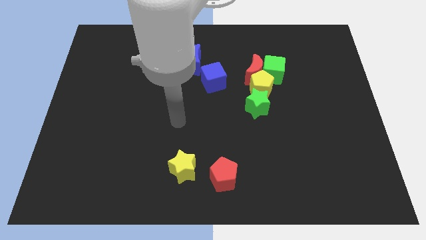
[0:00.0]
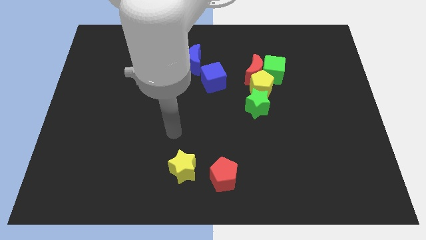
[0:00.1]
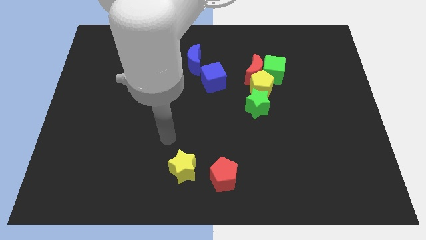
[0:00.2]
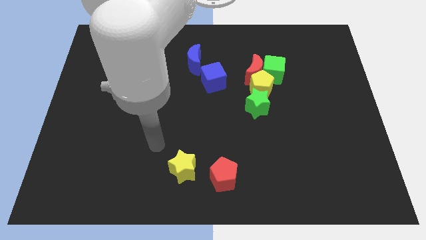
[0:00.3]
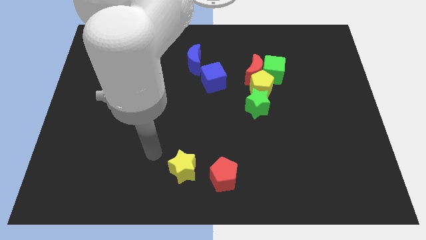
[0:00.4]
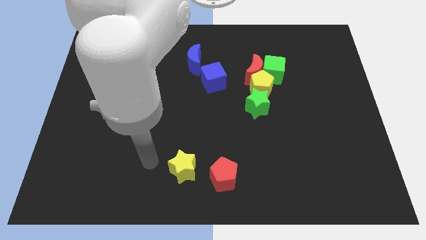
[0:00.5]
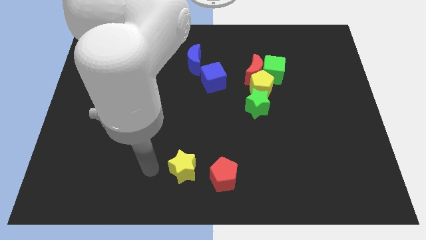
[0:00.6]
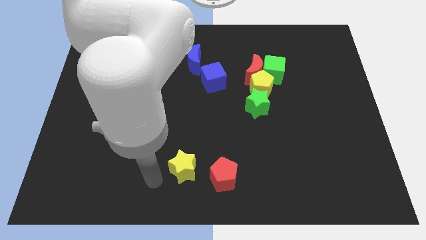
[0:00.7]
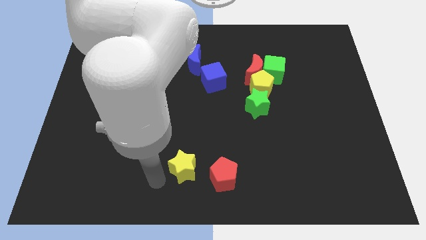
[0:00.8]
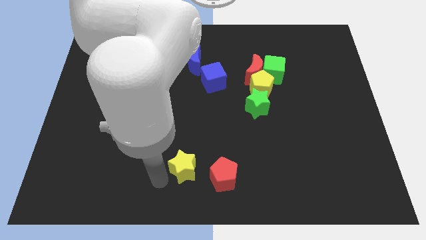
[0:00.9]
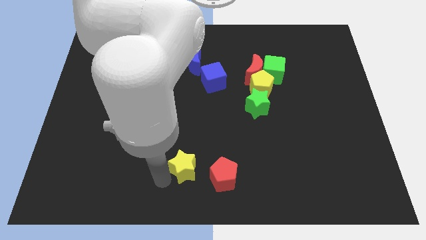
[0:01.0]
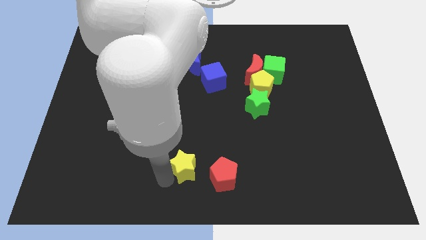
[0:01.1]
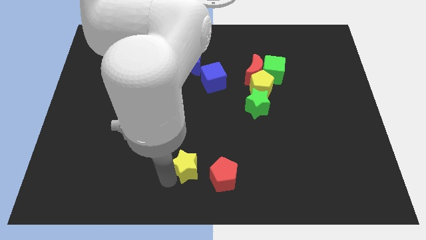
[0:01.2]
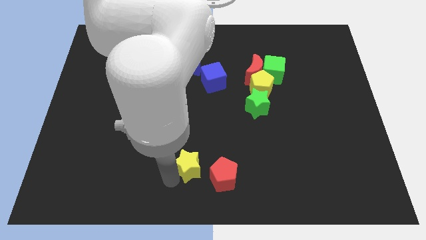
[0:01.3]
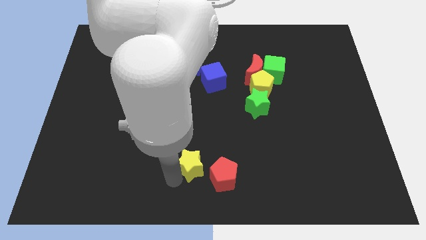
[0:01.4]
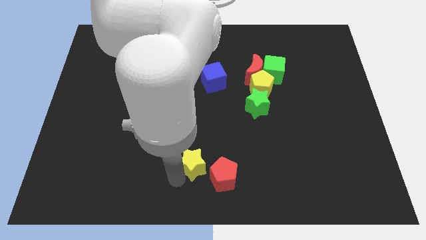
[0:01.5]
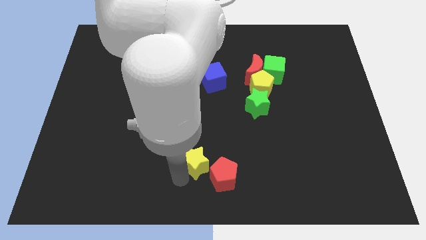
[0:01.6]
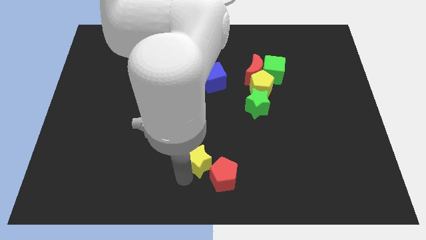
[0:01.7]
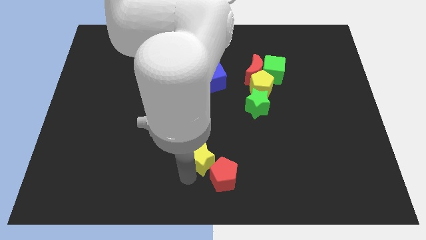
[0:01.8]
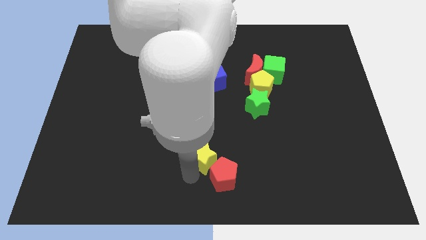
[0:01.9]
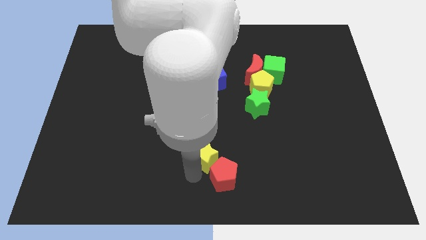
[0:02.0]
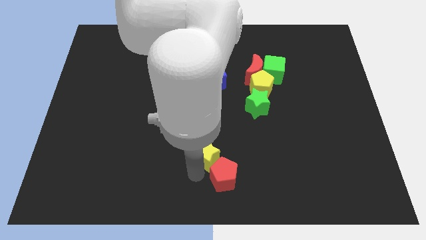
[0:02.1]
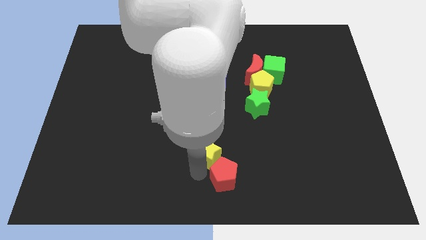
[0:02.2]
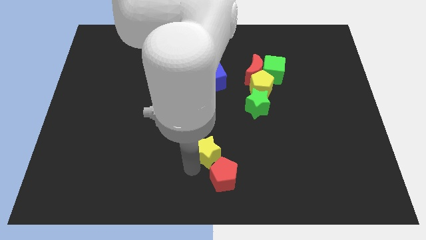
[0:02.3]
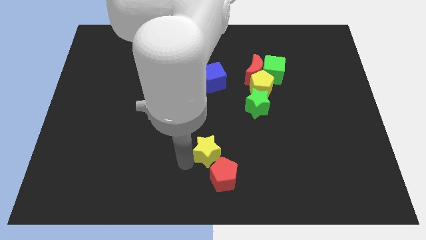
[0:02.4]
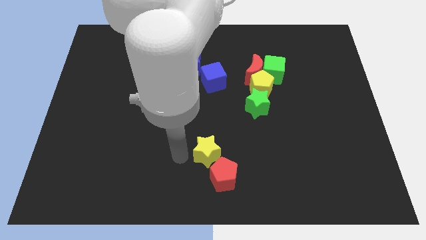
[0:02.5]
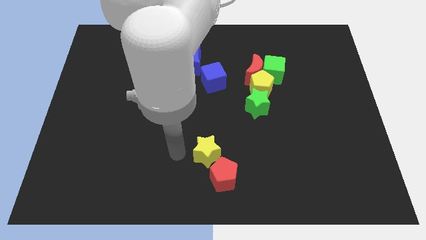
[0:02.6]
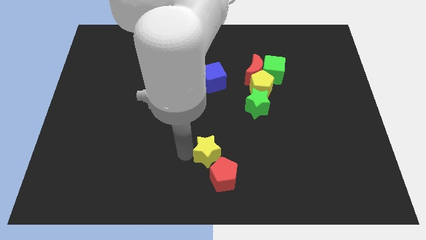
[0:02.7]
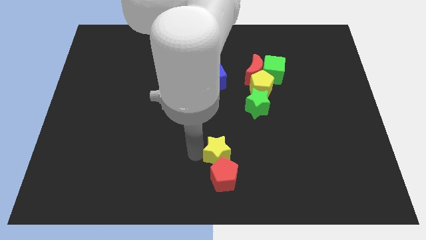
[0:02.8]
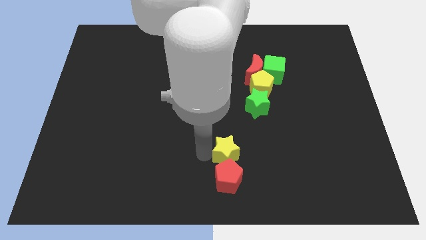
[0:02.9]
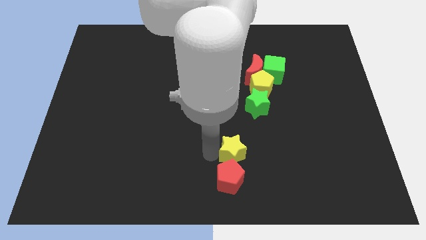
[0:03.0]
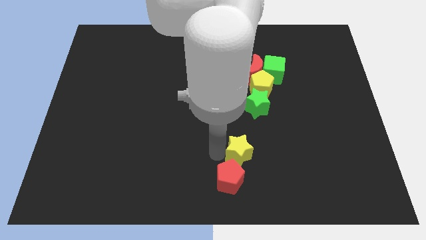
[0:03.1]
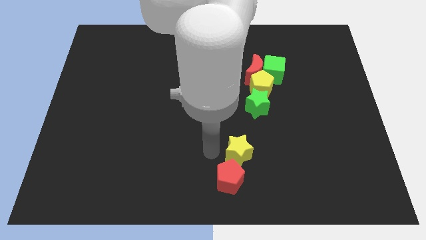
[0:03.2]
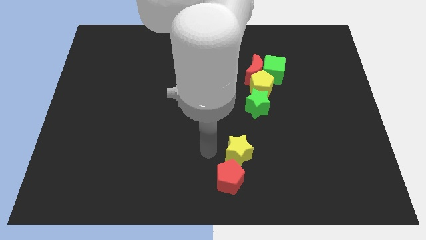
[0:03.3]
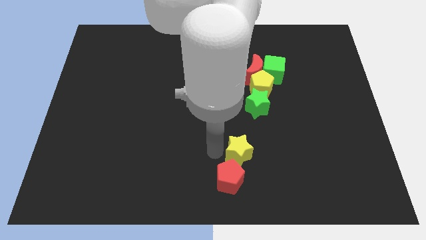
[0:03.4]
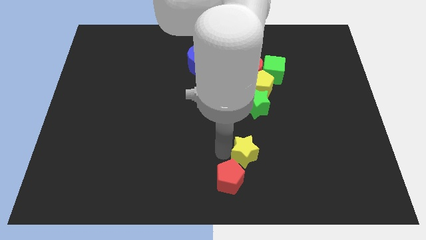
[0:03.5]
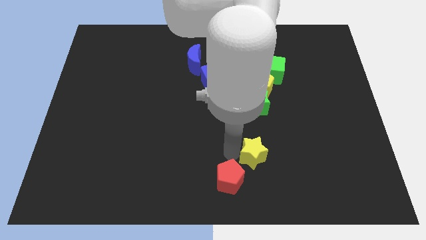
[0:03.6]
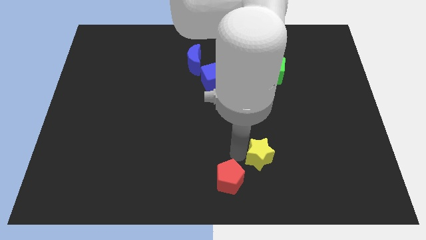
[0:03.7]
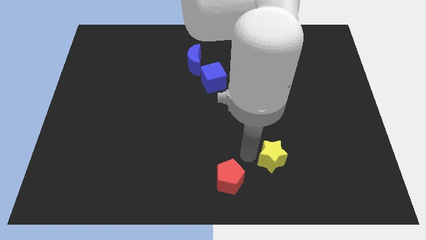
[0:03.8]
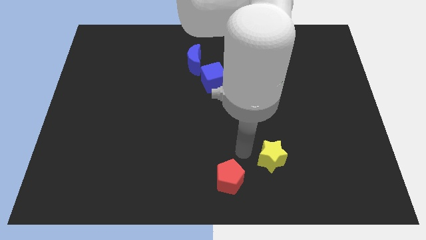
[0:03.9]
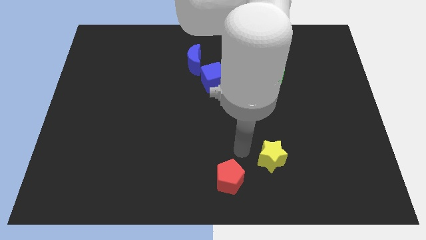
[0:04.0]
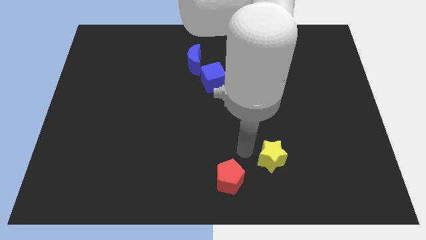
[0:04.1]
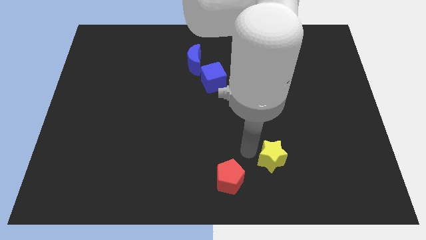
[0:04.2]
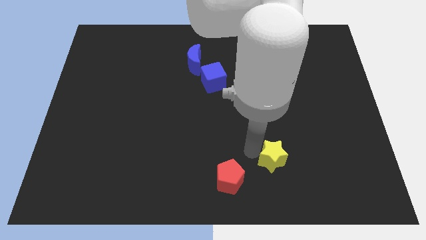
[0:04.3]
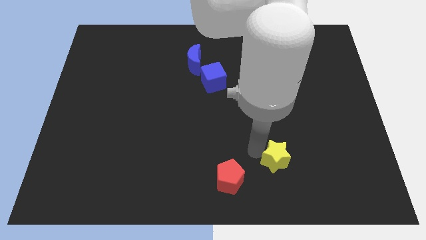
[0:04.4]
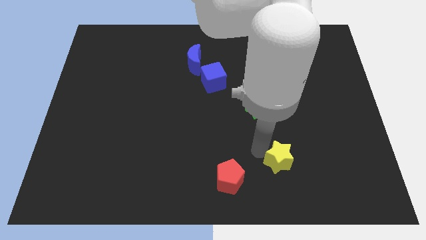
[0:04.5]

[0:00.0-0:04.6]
push the yellow star to the right

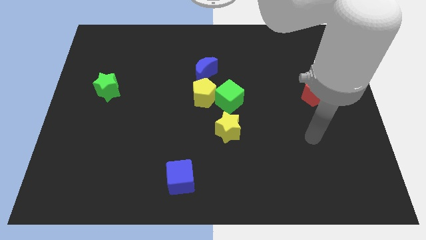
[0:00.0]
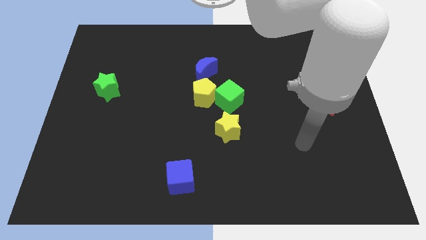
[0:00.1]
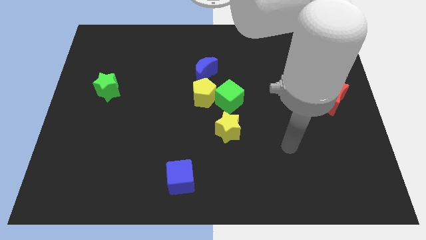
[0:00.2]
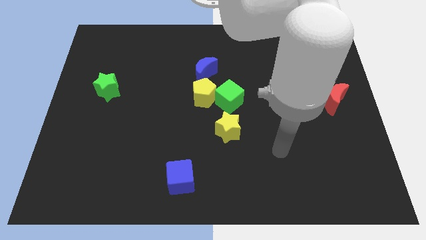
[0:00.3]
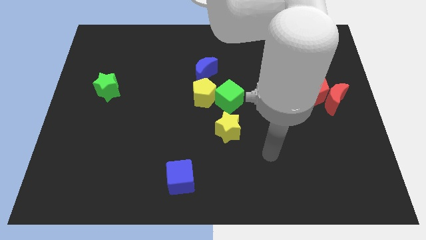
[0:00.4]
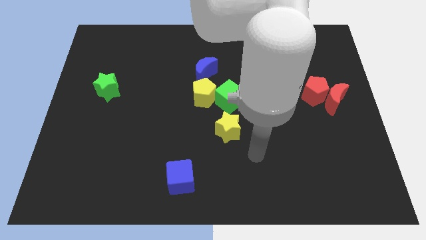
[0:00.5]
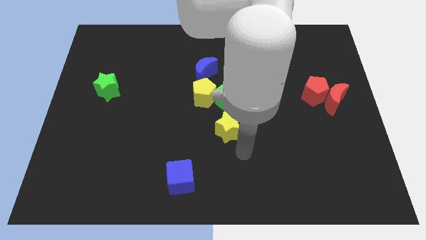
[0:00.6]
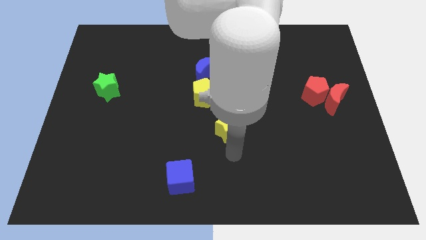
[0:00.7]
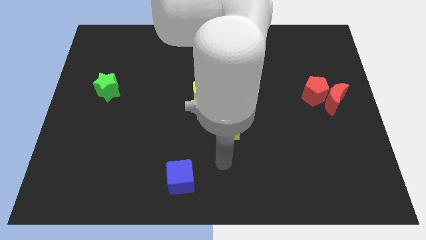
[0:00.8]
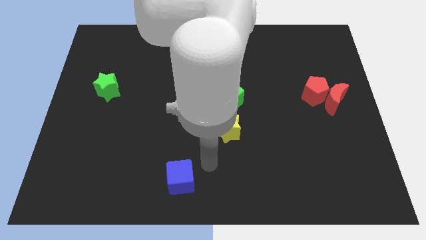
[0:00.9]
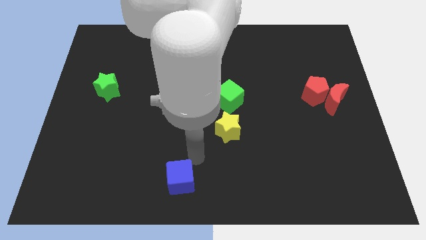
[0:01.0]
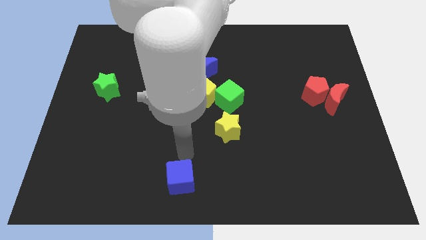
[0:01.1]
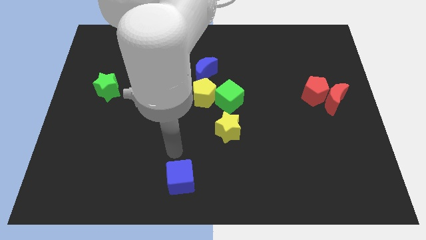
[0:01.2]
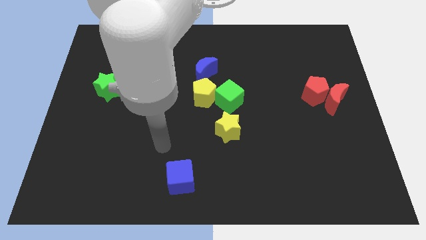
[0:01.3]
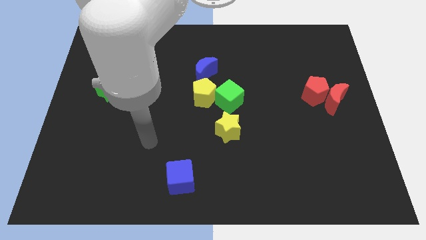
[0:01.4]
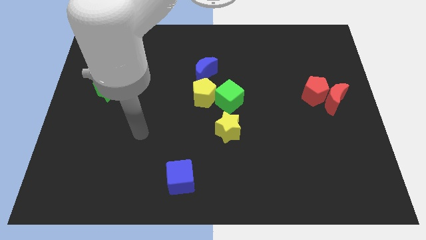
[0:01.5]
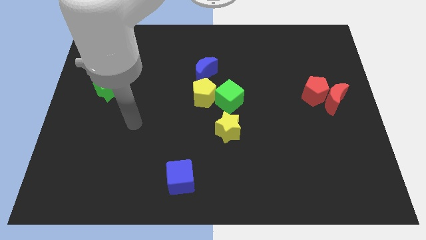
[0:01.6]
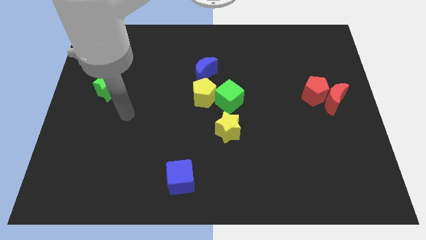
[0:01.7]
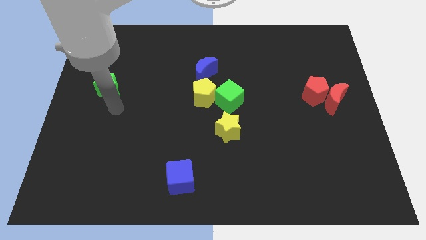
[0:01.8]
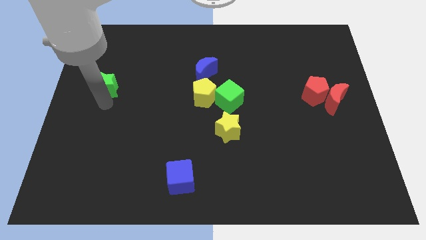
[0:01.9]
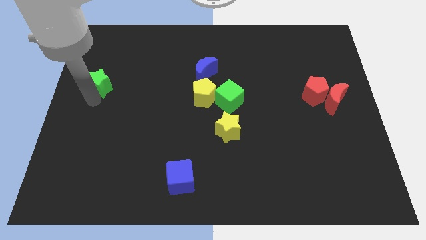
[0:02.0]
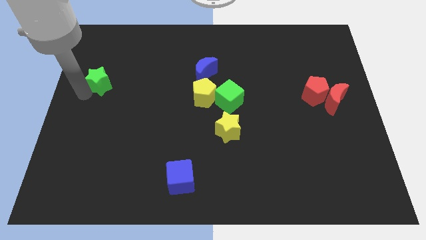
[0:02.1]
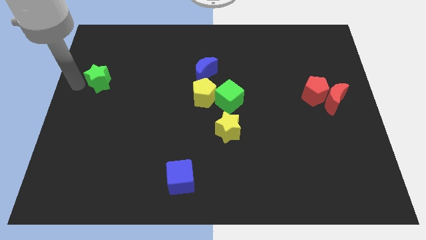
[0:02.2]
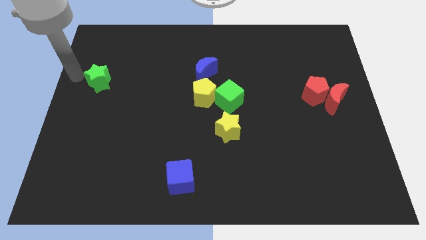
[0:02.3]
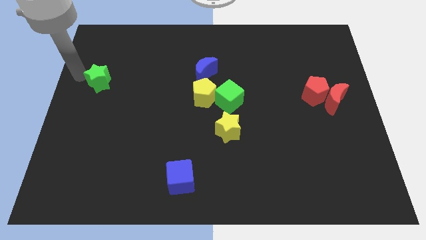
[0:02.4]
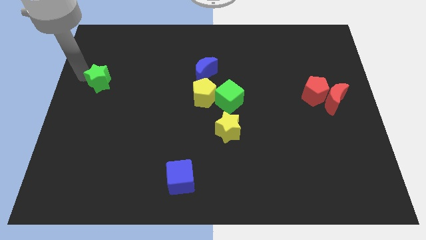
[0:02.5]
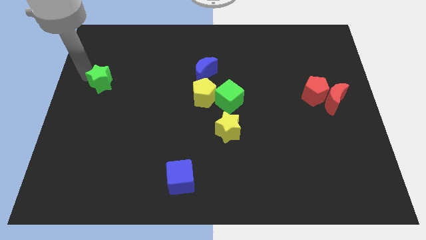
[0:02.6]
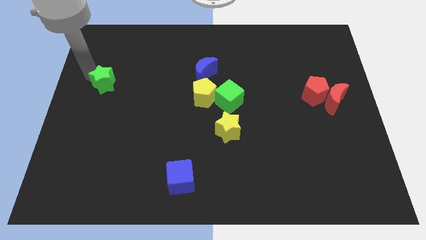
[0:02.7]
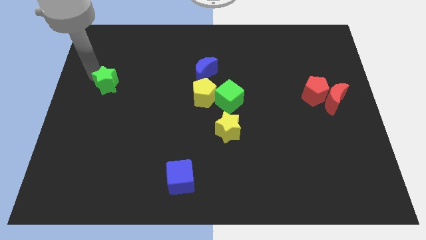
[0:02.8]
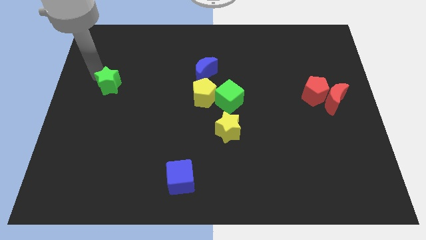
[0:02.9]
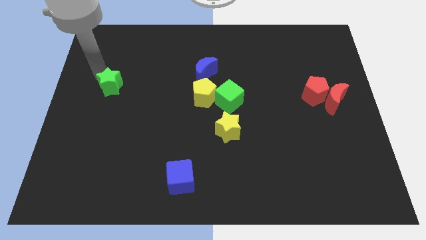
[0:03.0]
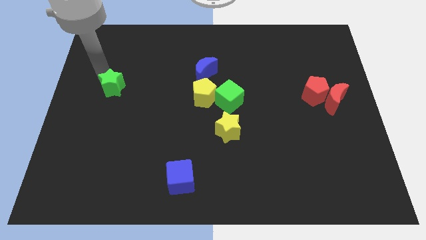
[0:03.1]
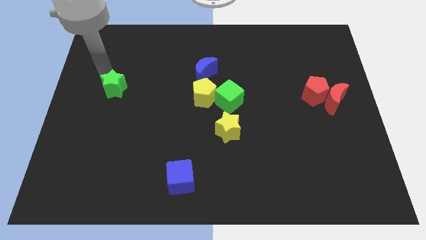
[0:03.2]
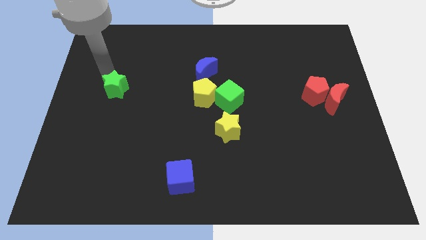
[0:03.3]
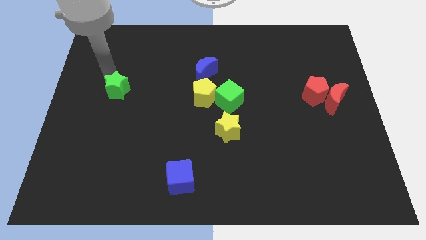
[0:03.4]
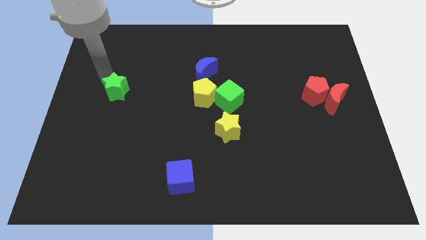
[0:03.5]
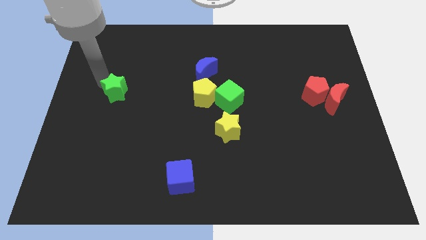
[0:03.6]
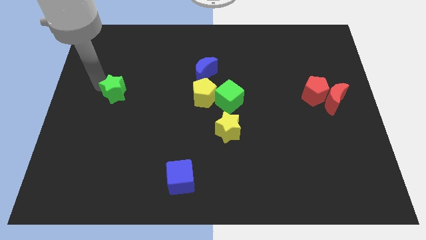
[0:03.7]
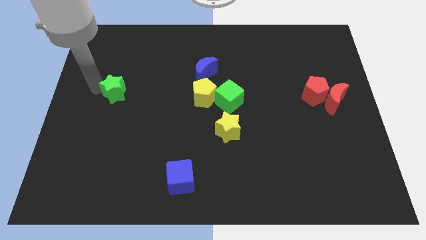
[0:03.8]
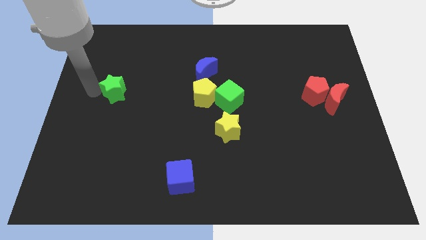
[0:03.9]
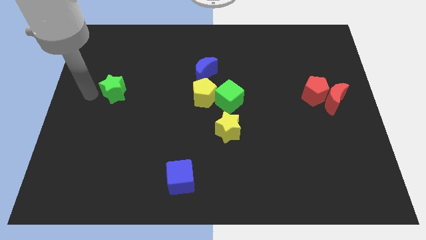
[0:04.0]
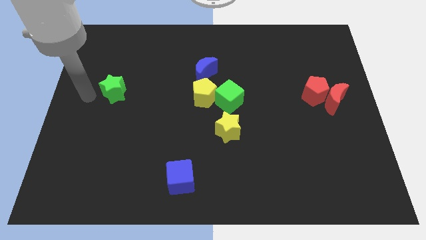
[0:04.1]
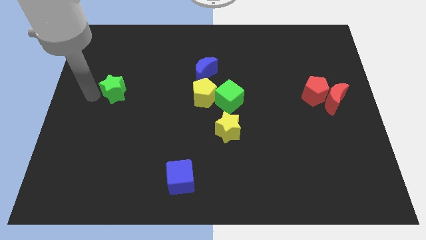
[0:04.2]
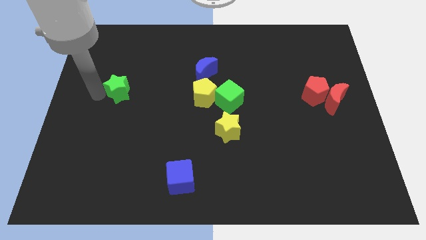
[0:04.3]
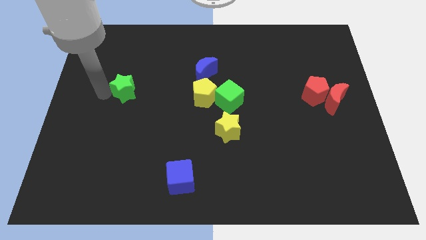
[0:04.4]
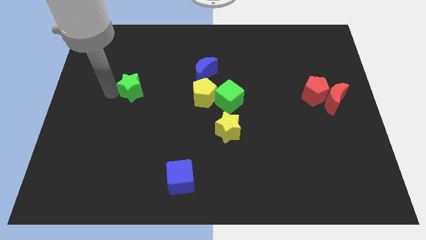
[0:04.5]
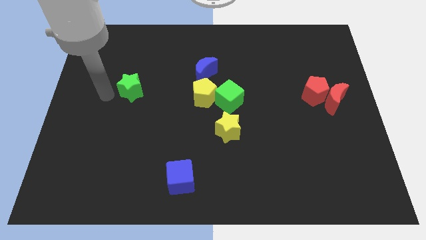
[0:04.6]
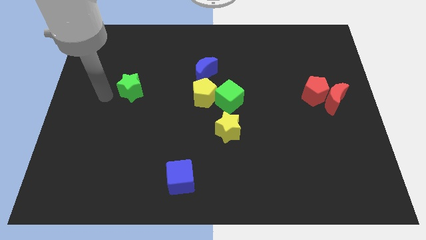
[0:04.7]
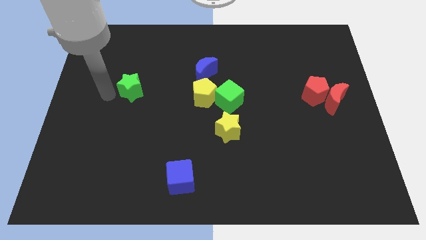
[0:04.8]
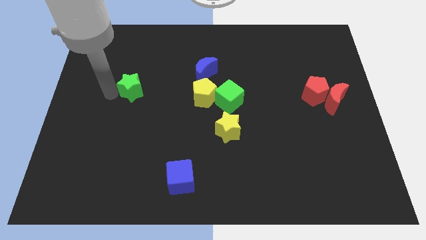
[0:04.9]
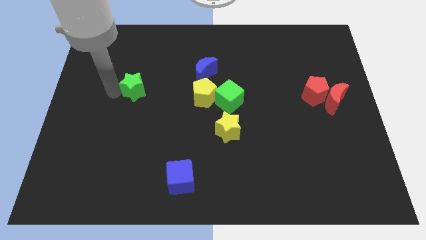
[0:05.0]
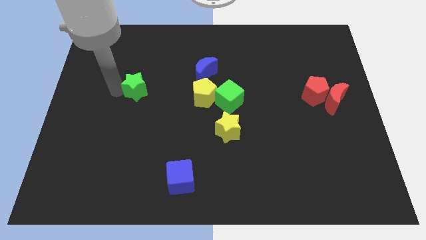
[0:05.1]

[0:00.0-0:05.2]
push the green star to the right somewhat
